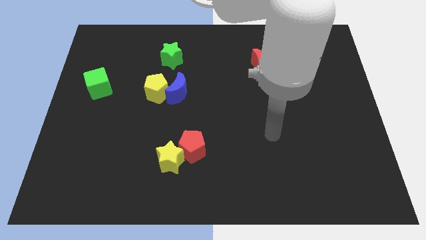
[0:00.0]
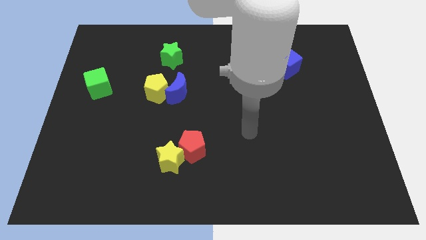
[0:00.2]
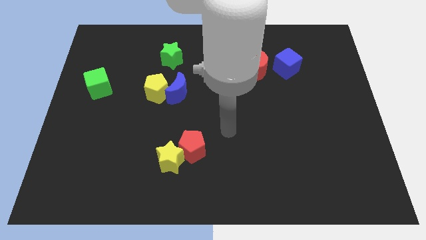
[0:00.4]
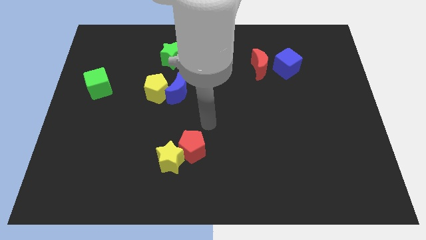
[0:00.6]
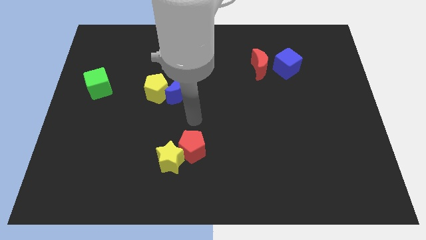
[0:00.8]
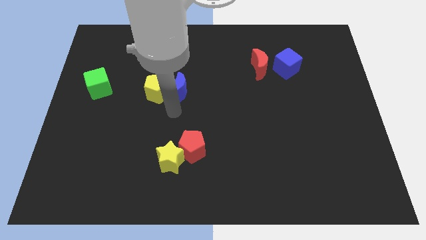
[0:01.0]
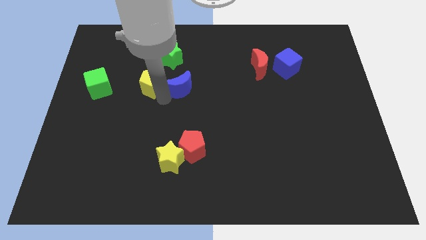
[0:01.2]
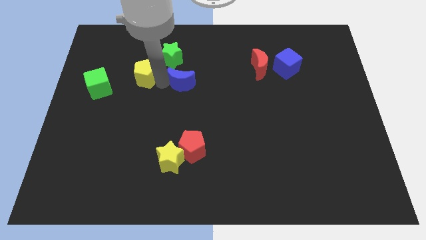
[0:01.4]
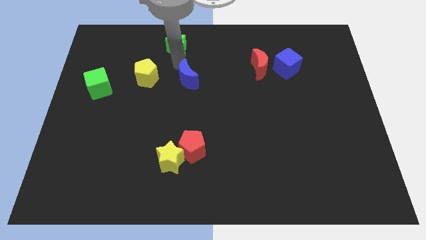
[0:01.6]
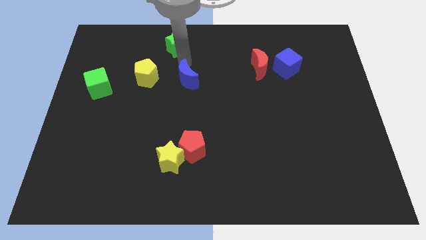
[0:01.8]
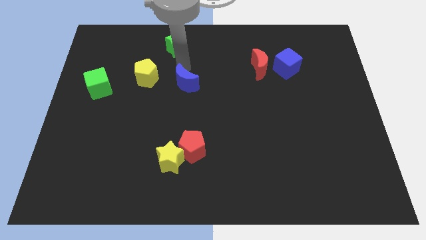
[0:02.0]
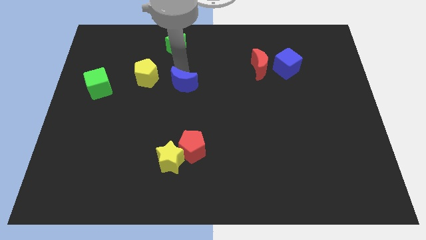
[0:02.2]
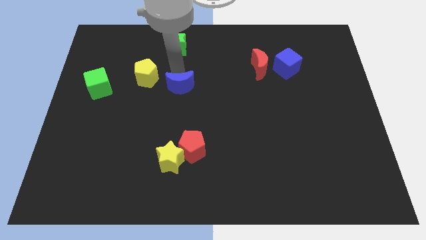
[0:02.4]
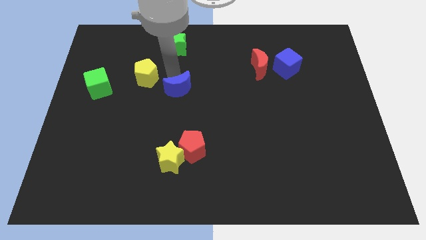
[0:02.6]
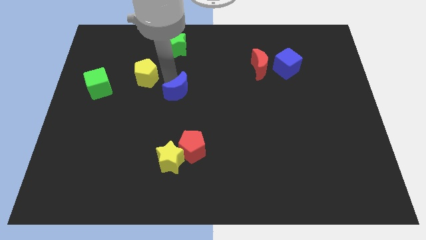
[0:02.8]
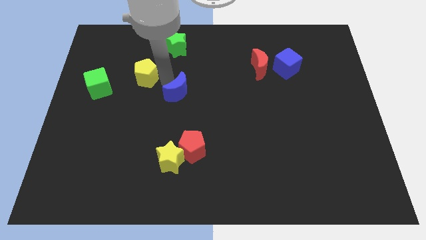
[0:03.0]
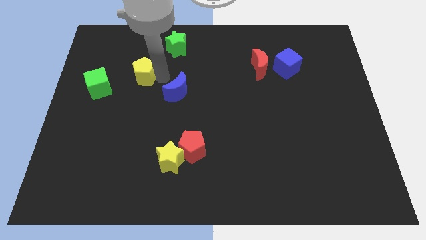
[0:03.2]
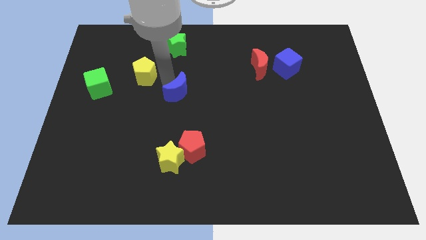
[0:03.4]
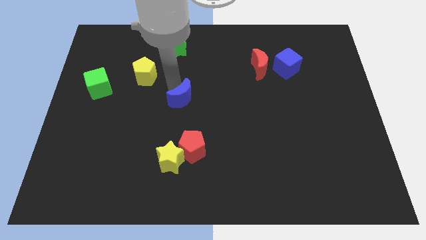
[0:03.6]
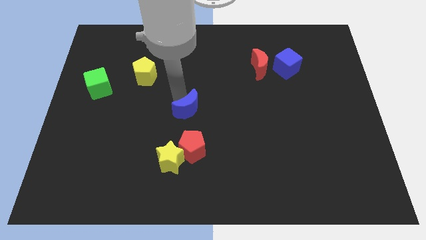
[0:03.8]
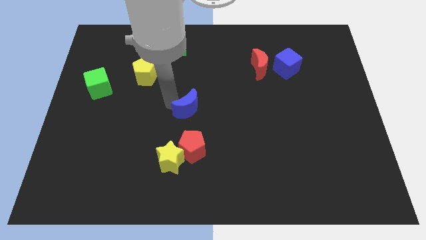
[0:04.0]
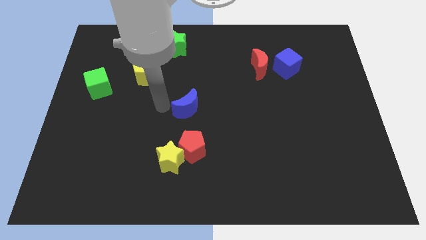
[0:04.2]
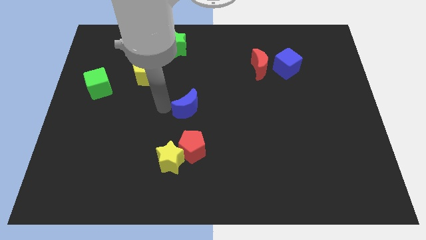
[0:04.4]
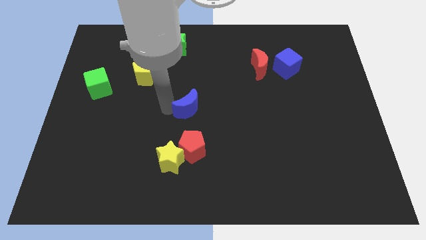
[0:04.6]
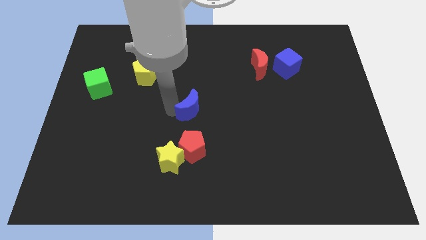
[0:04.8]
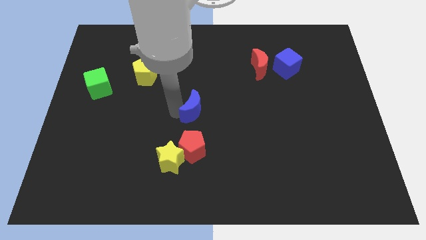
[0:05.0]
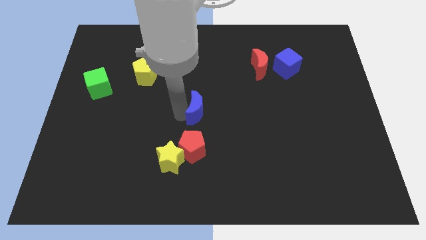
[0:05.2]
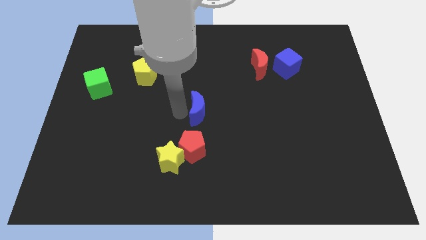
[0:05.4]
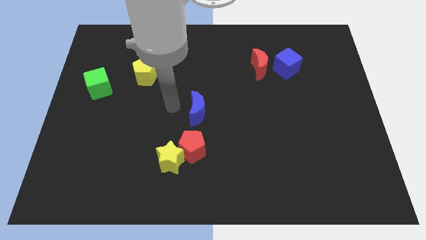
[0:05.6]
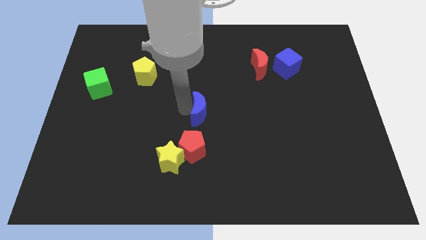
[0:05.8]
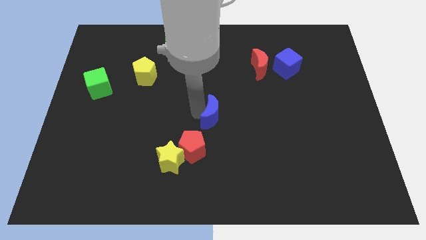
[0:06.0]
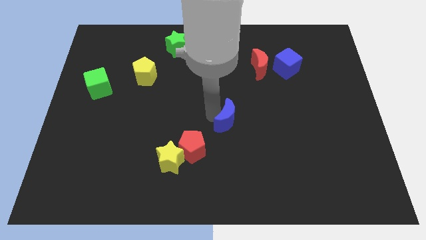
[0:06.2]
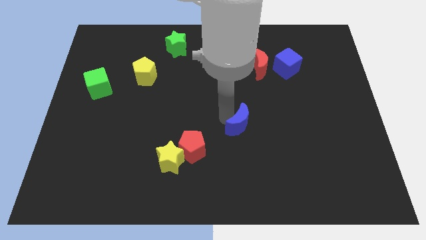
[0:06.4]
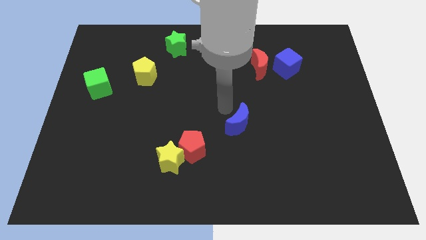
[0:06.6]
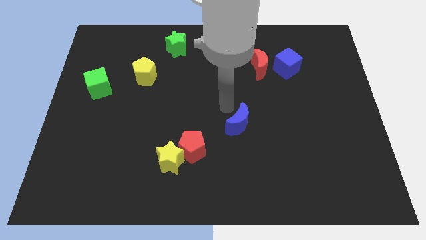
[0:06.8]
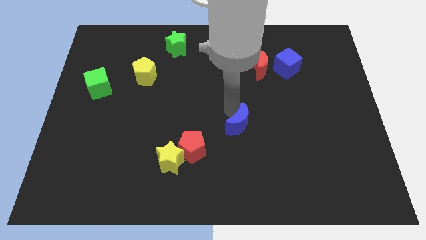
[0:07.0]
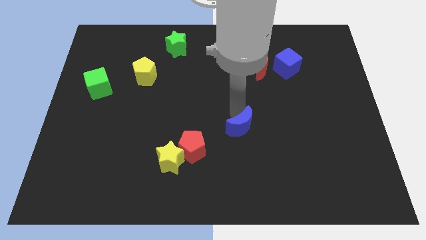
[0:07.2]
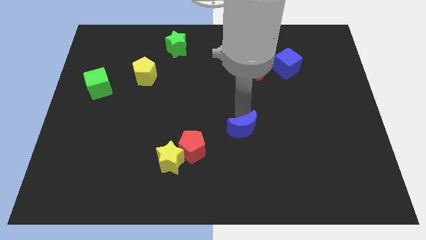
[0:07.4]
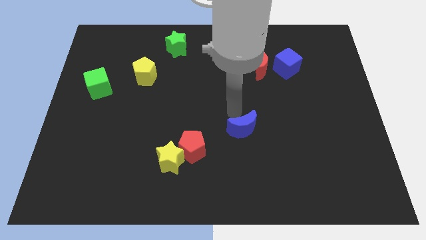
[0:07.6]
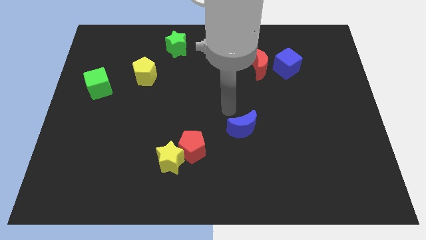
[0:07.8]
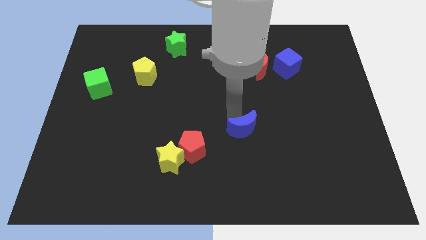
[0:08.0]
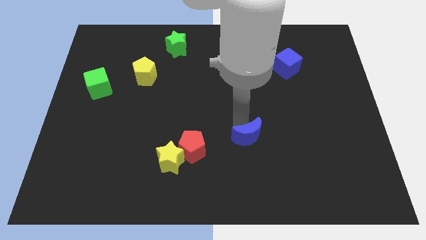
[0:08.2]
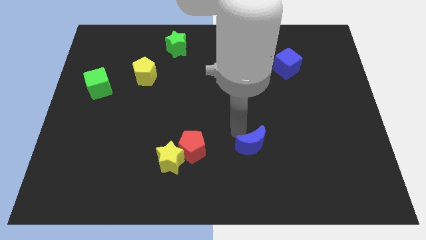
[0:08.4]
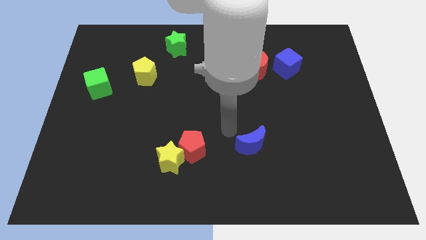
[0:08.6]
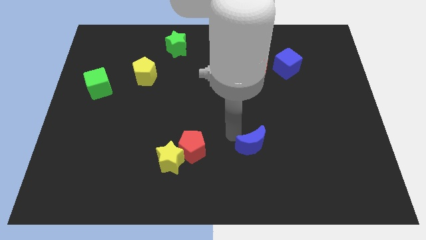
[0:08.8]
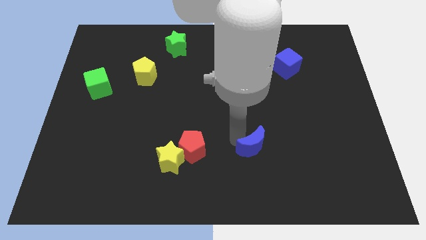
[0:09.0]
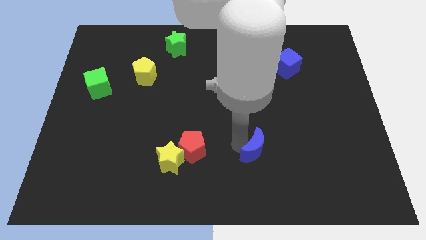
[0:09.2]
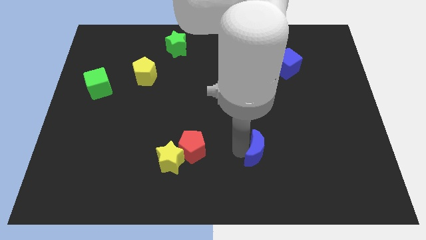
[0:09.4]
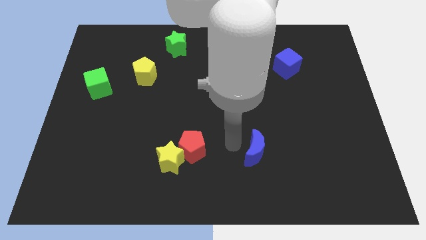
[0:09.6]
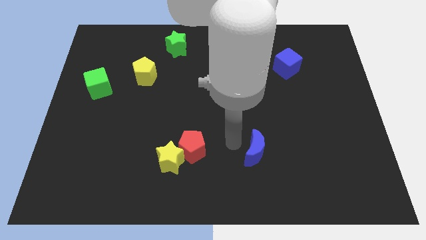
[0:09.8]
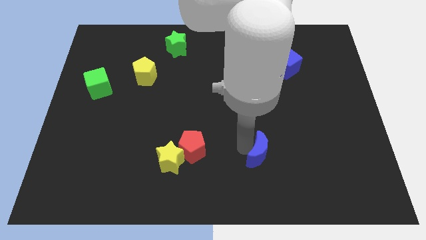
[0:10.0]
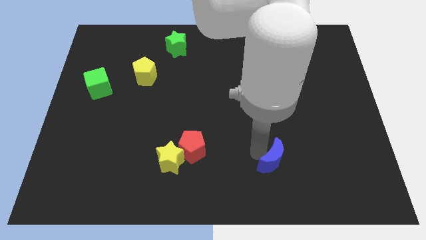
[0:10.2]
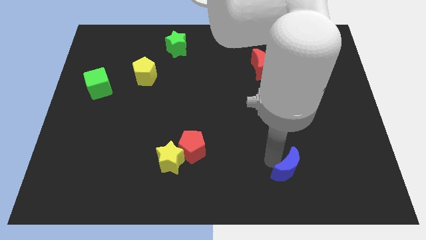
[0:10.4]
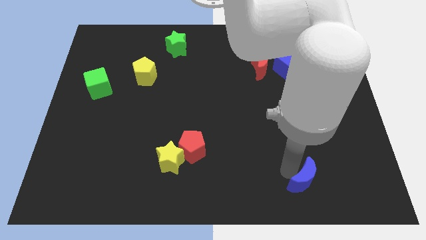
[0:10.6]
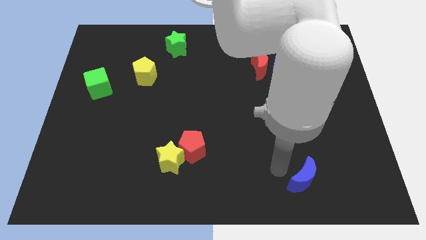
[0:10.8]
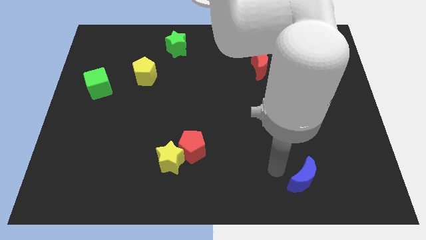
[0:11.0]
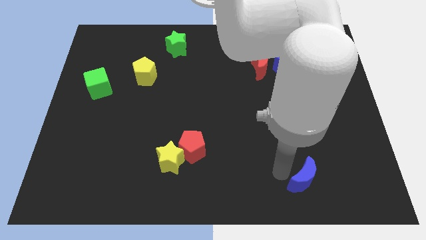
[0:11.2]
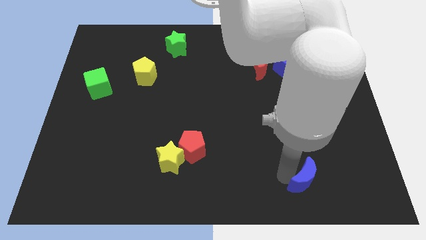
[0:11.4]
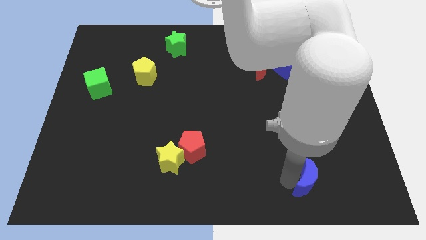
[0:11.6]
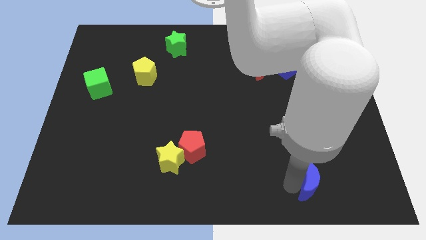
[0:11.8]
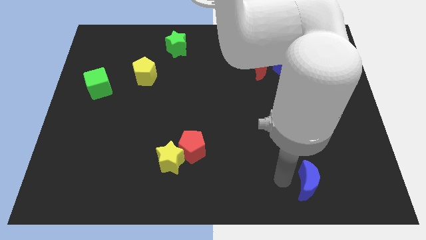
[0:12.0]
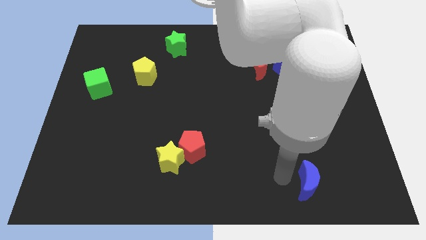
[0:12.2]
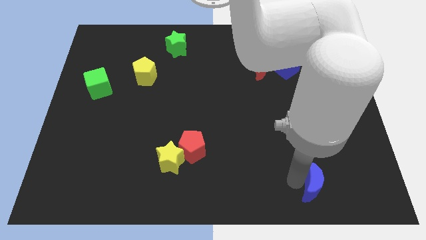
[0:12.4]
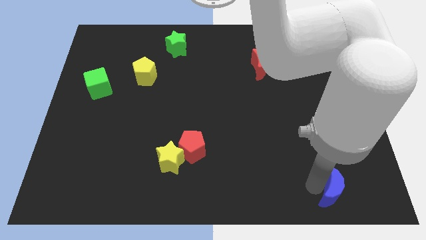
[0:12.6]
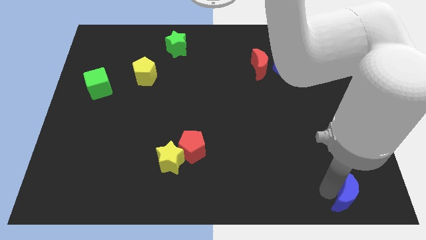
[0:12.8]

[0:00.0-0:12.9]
slide the blue moon to the lower right corner
